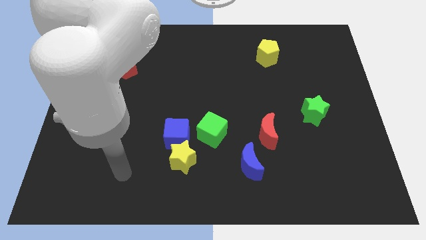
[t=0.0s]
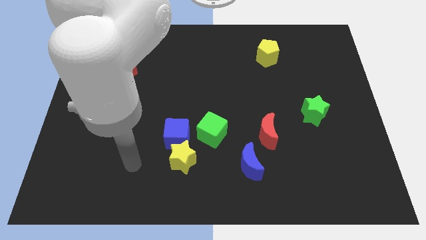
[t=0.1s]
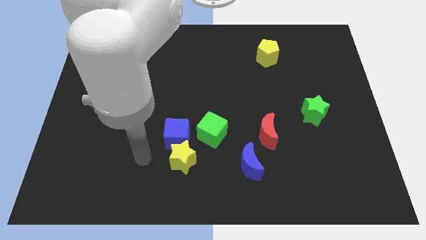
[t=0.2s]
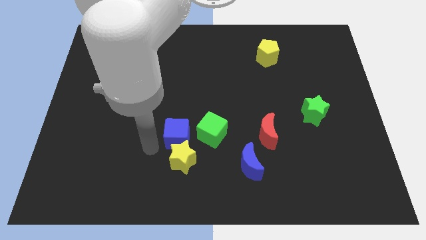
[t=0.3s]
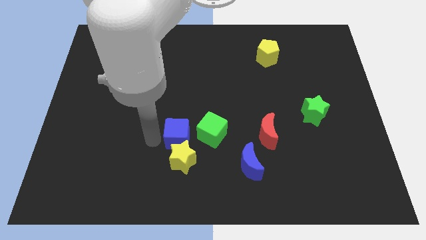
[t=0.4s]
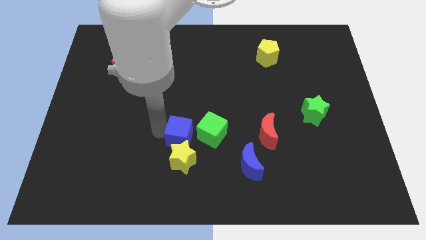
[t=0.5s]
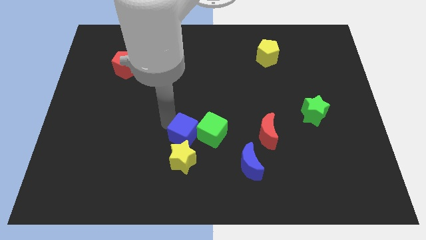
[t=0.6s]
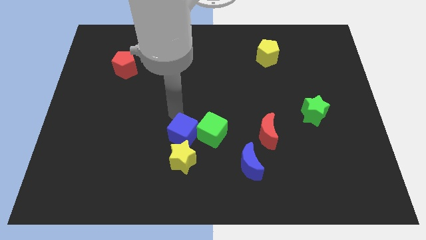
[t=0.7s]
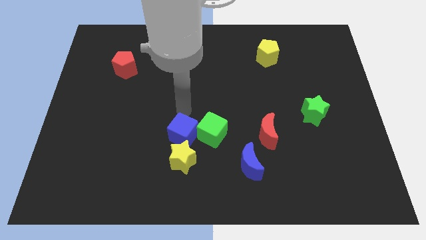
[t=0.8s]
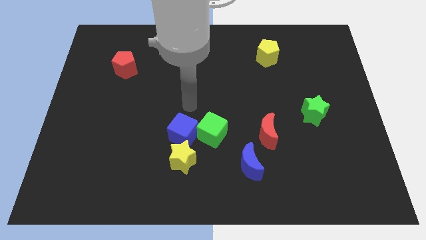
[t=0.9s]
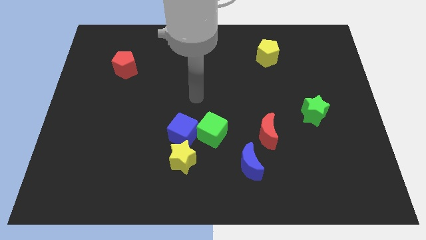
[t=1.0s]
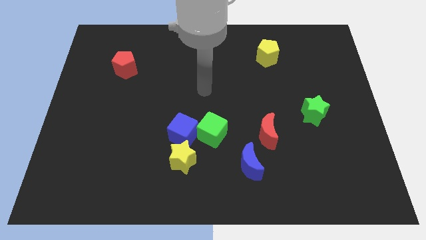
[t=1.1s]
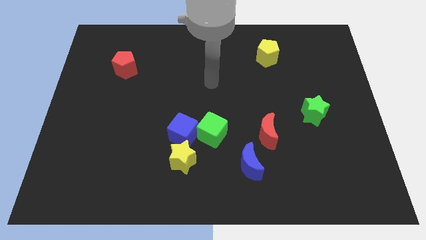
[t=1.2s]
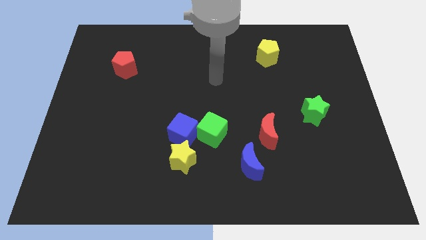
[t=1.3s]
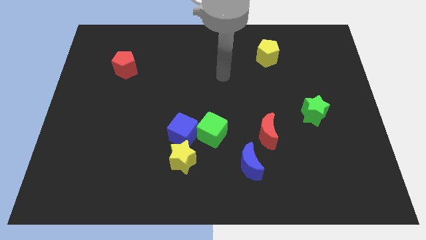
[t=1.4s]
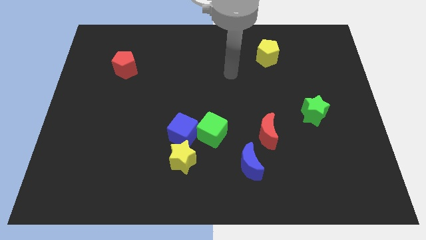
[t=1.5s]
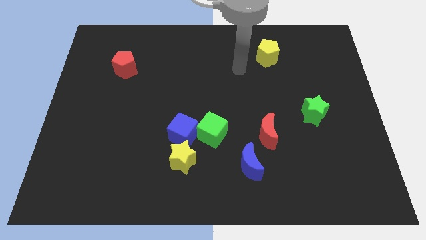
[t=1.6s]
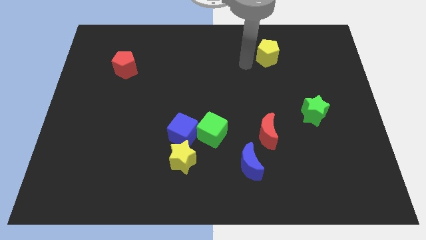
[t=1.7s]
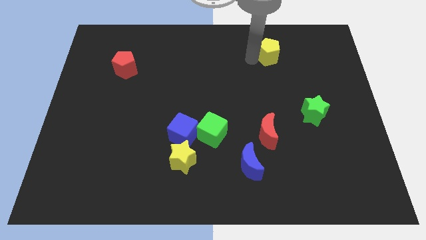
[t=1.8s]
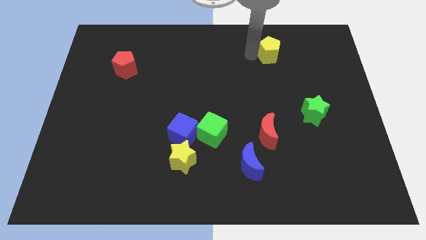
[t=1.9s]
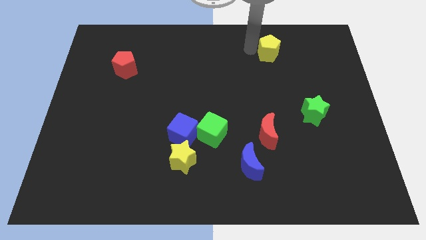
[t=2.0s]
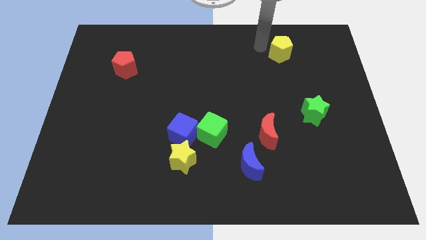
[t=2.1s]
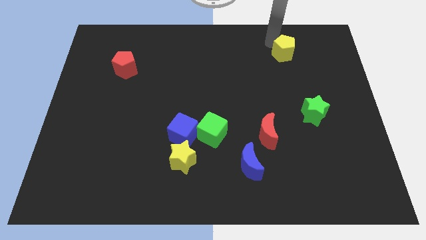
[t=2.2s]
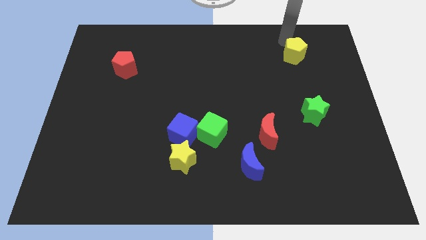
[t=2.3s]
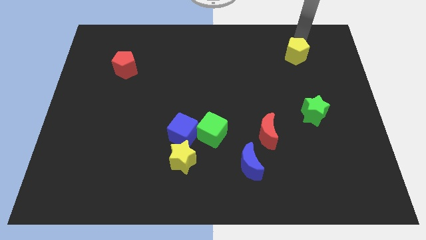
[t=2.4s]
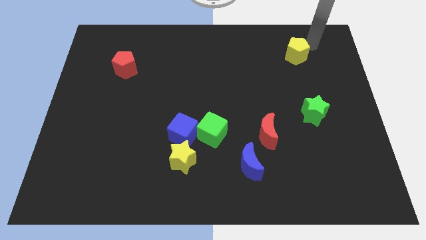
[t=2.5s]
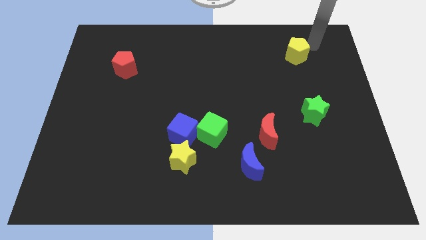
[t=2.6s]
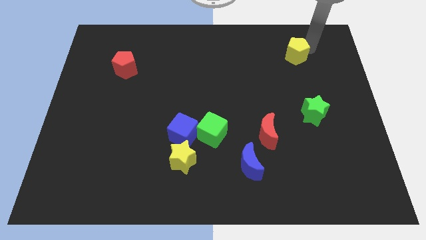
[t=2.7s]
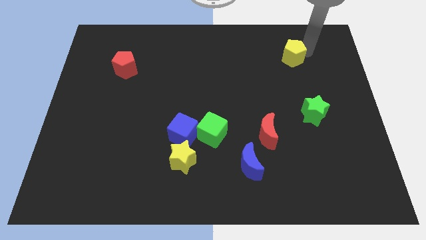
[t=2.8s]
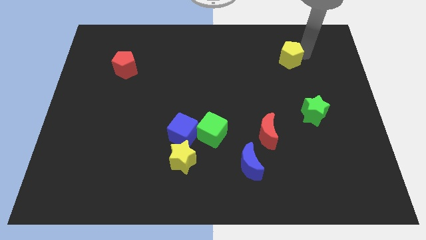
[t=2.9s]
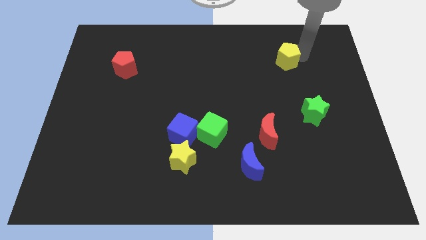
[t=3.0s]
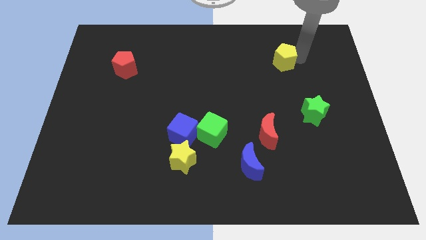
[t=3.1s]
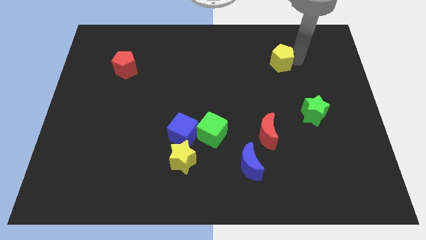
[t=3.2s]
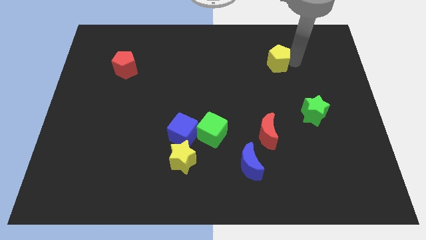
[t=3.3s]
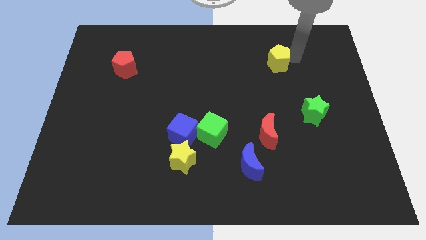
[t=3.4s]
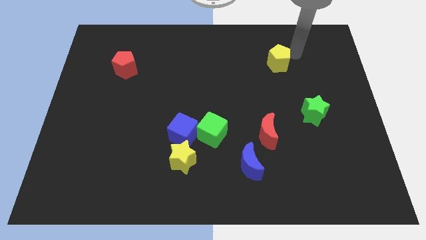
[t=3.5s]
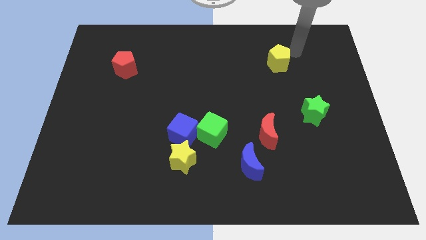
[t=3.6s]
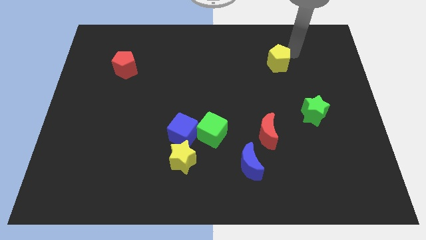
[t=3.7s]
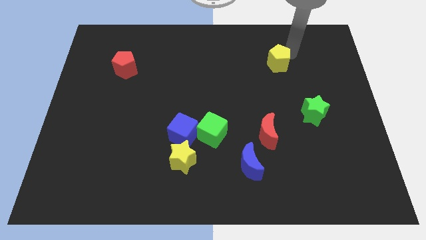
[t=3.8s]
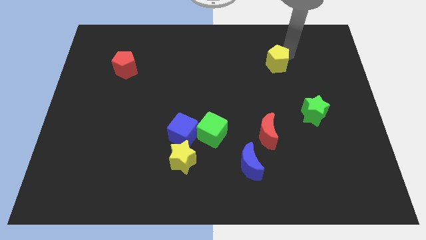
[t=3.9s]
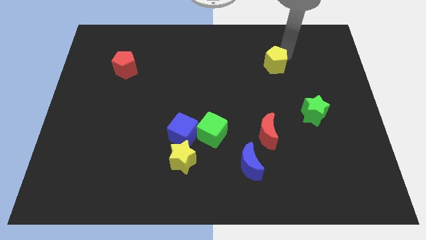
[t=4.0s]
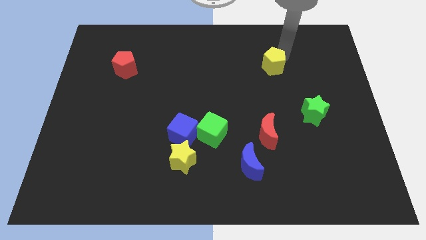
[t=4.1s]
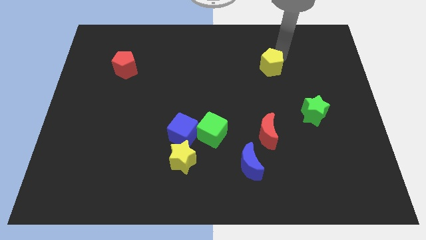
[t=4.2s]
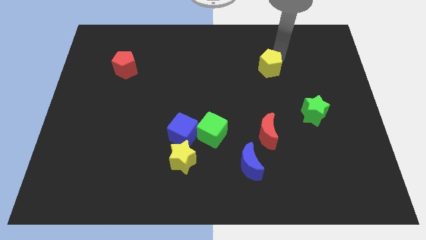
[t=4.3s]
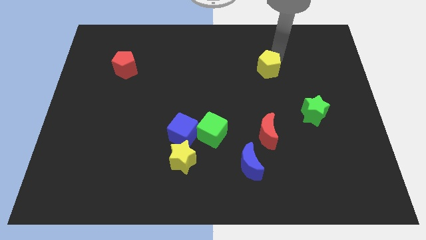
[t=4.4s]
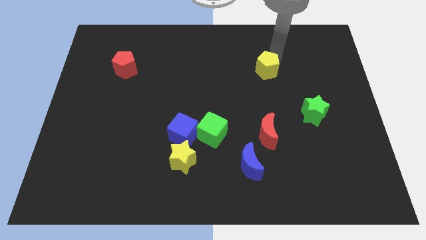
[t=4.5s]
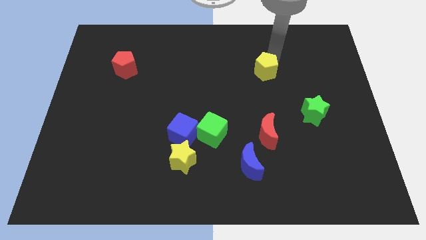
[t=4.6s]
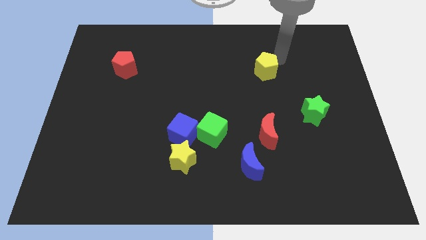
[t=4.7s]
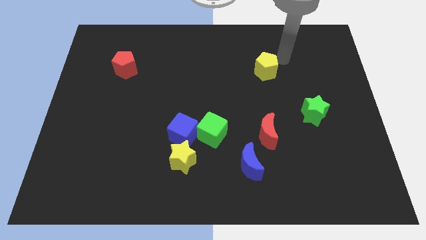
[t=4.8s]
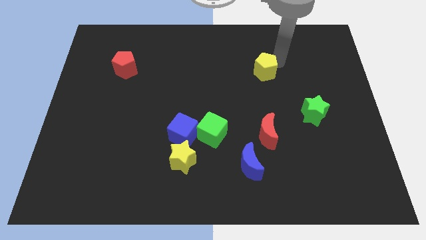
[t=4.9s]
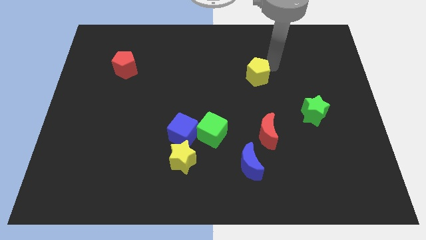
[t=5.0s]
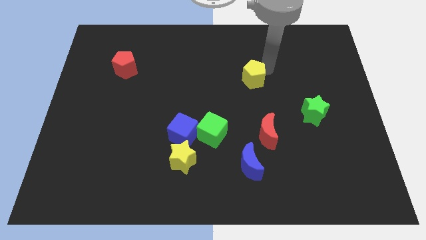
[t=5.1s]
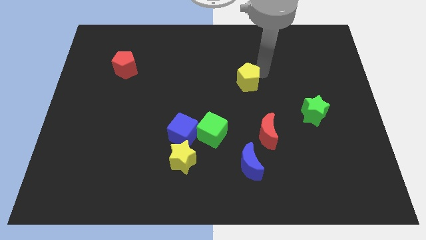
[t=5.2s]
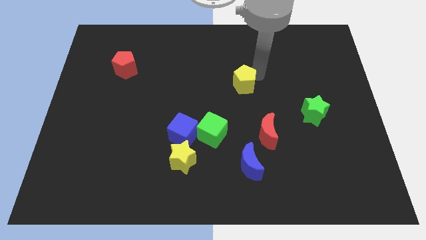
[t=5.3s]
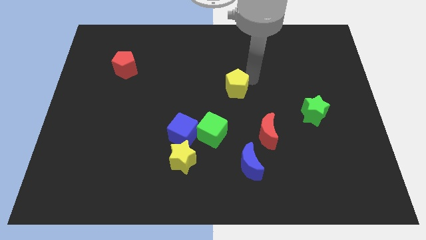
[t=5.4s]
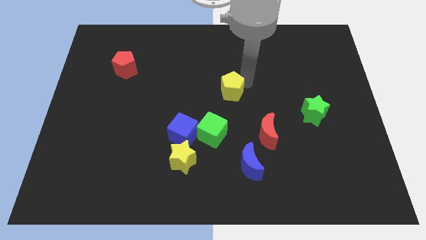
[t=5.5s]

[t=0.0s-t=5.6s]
slide the yellow pentagon to the top of the green cube

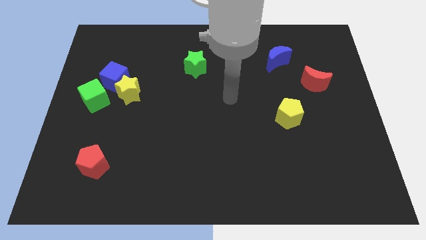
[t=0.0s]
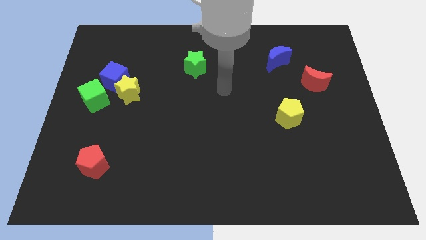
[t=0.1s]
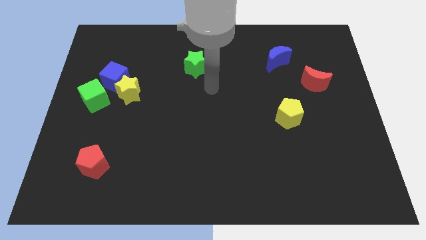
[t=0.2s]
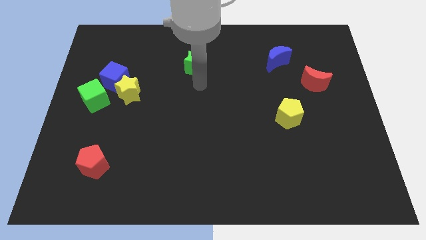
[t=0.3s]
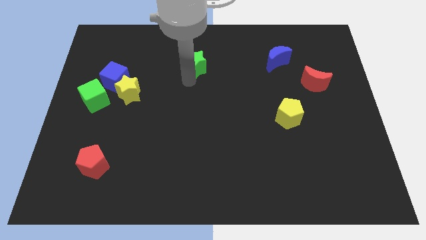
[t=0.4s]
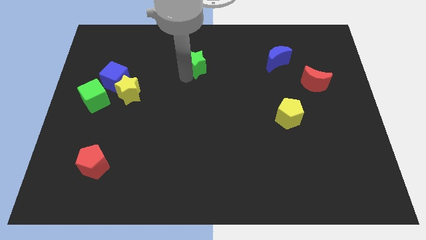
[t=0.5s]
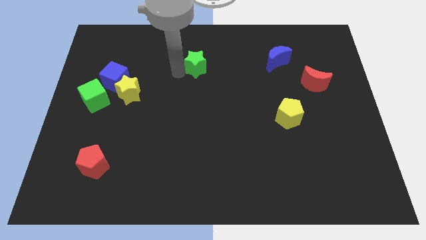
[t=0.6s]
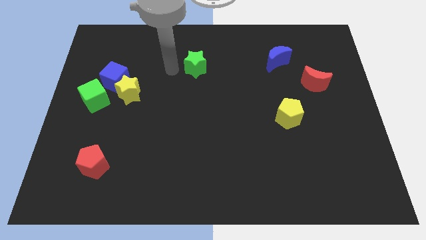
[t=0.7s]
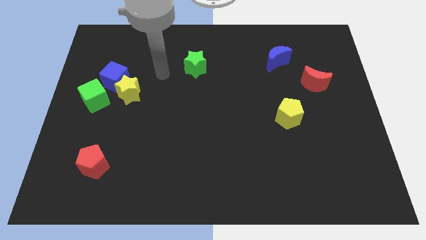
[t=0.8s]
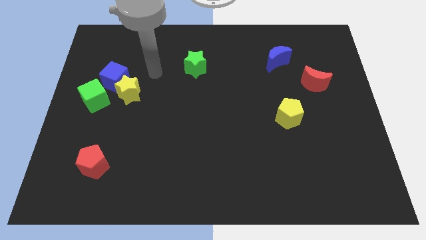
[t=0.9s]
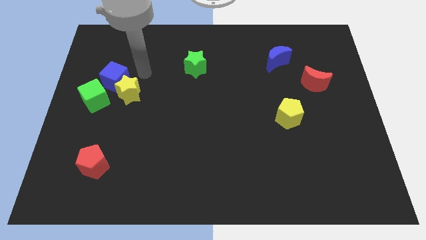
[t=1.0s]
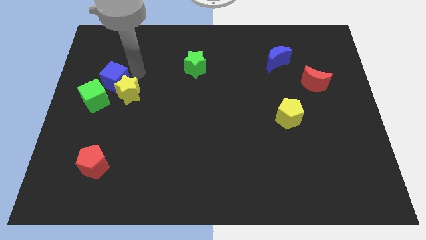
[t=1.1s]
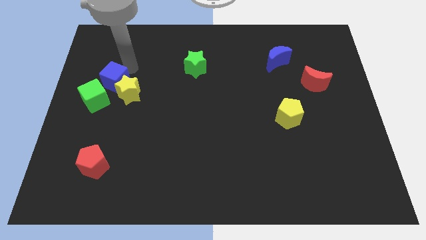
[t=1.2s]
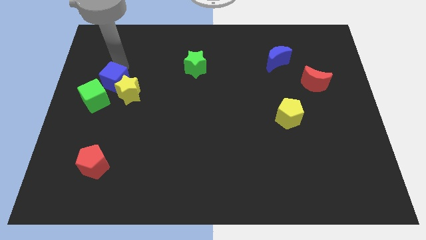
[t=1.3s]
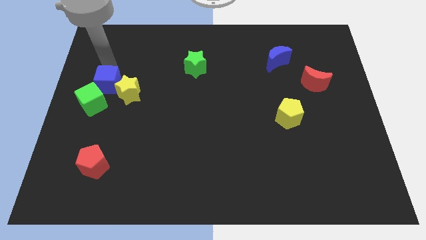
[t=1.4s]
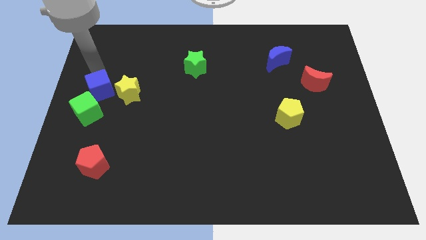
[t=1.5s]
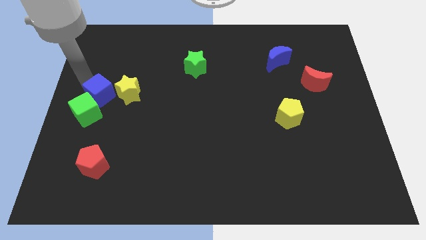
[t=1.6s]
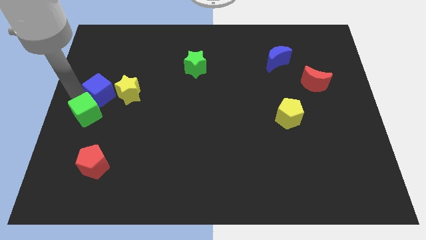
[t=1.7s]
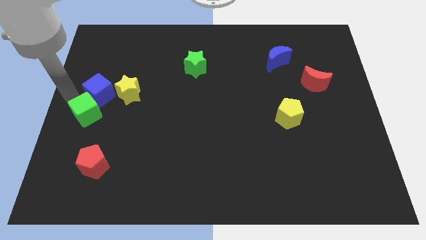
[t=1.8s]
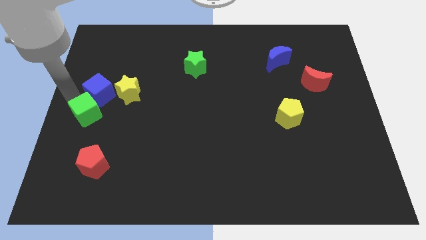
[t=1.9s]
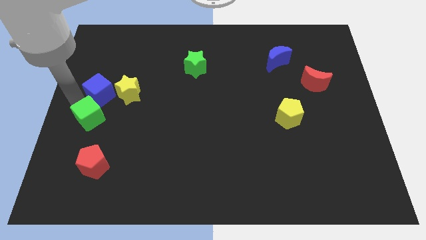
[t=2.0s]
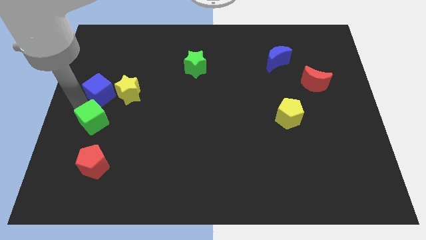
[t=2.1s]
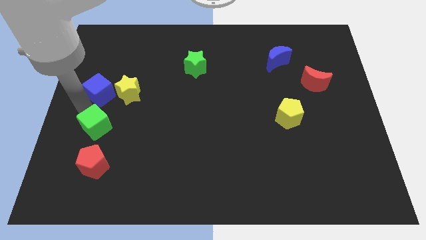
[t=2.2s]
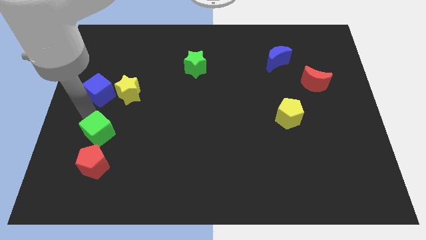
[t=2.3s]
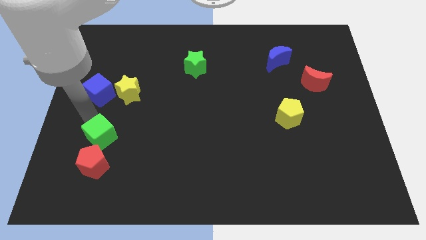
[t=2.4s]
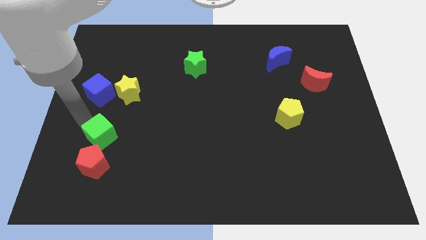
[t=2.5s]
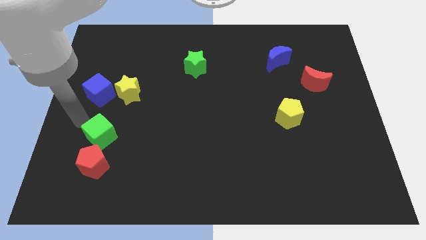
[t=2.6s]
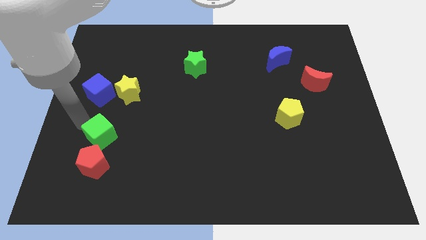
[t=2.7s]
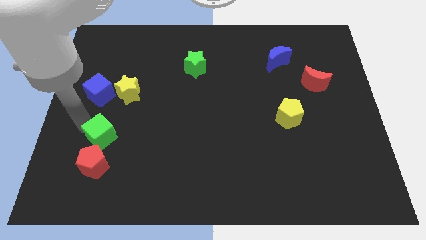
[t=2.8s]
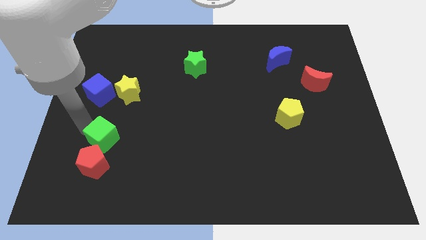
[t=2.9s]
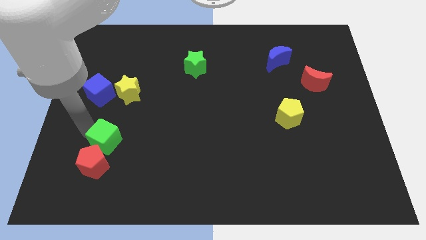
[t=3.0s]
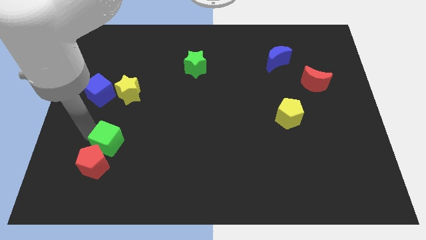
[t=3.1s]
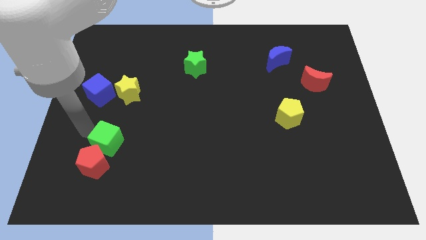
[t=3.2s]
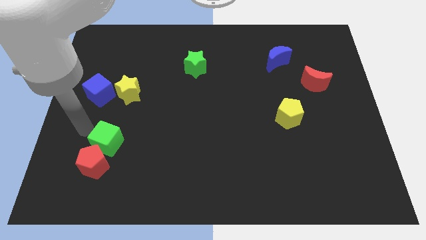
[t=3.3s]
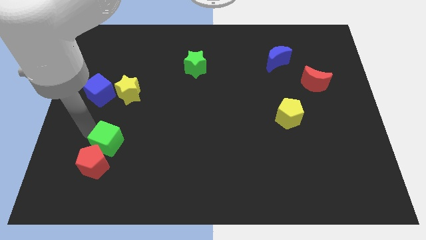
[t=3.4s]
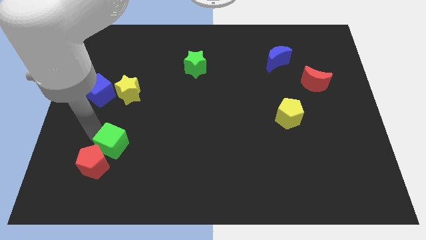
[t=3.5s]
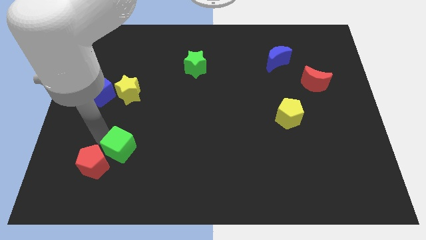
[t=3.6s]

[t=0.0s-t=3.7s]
push the green cube to the right side of the red pentagon
